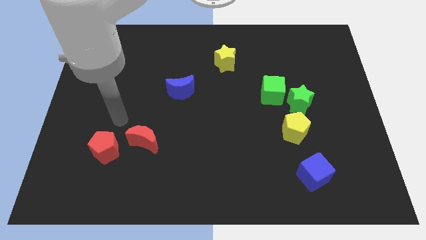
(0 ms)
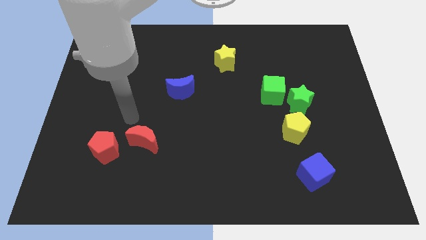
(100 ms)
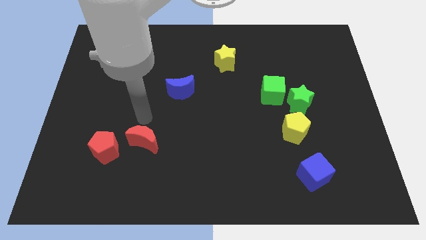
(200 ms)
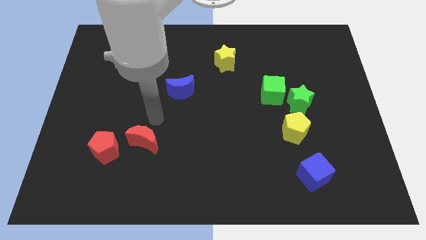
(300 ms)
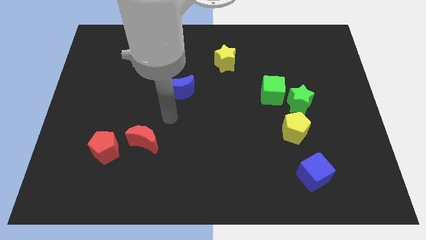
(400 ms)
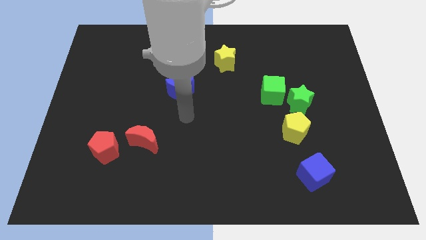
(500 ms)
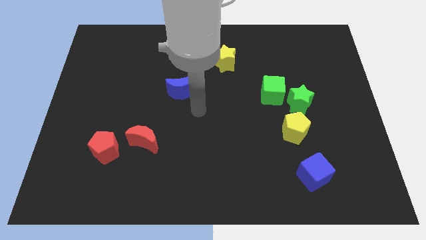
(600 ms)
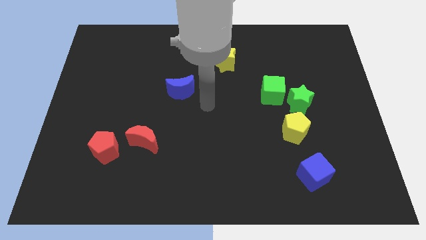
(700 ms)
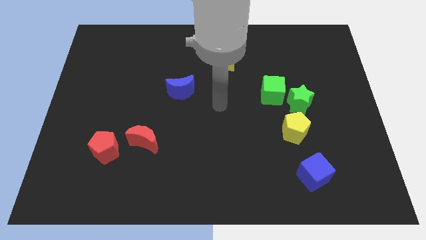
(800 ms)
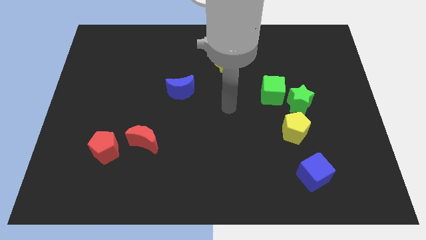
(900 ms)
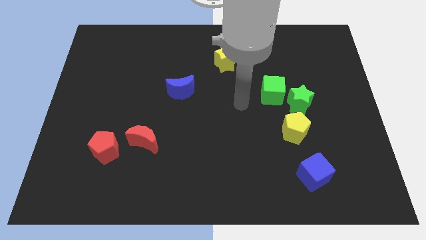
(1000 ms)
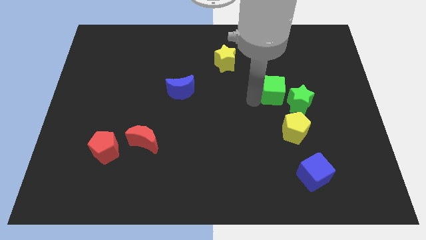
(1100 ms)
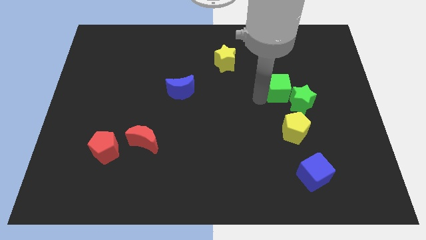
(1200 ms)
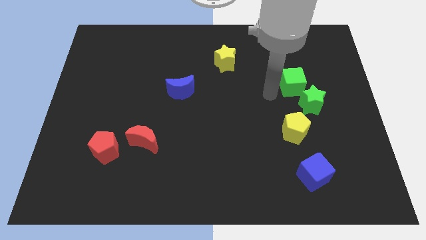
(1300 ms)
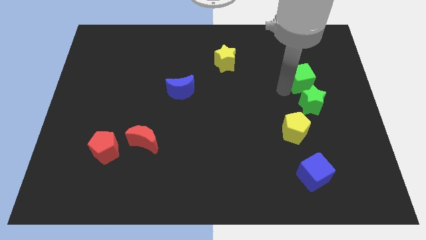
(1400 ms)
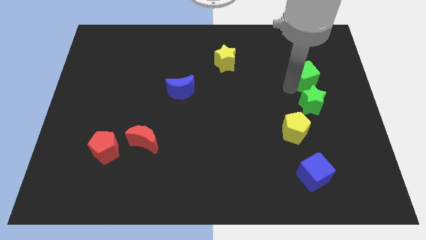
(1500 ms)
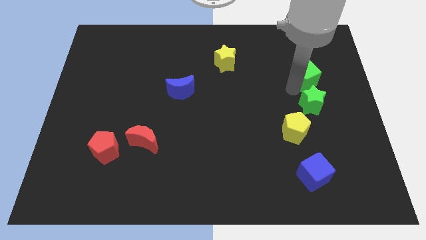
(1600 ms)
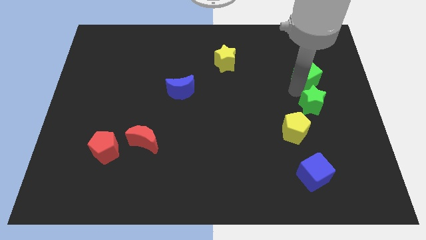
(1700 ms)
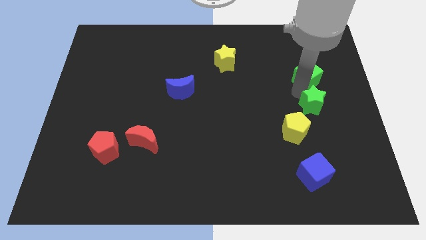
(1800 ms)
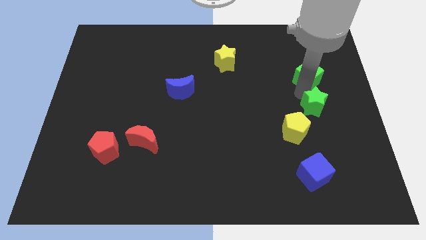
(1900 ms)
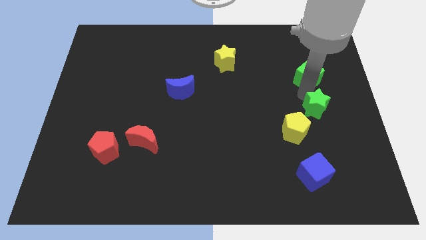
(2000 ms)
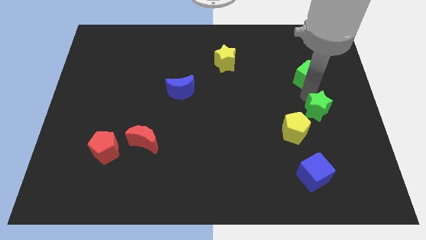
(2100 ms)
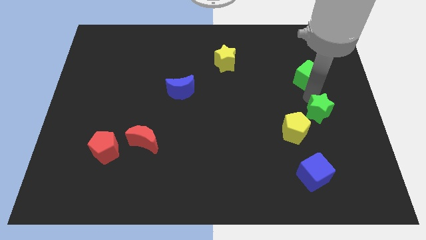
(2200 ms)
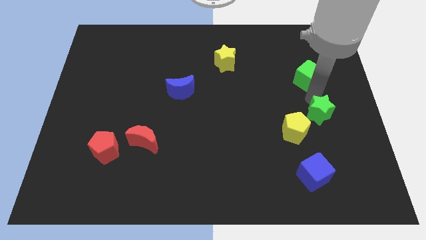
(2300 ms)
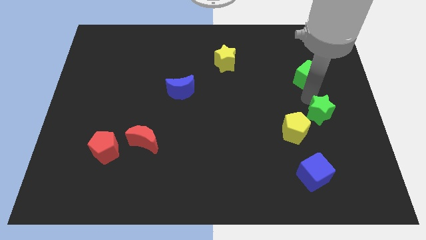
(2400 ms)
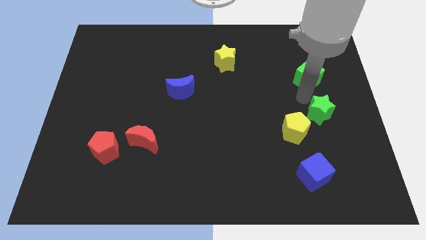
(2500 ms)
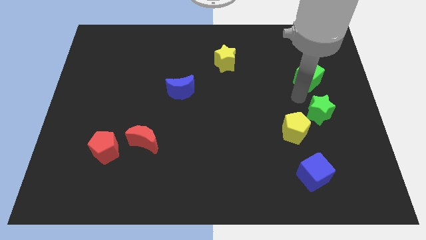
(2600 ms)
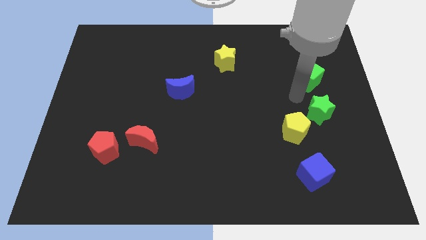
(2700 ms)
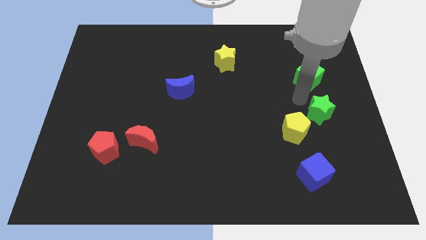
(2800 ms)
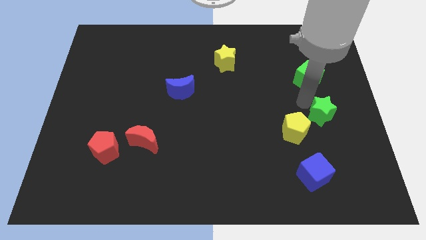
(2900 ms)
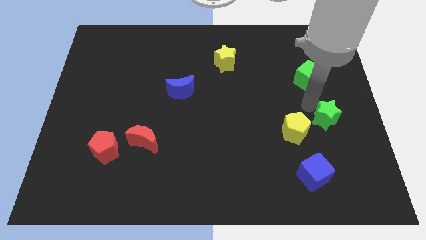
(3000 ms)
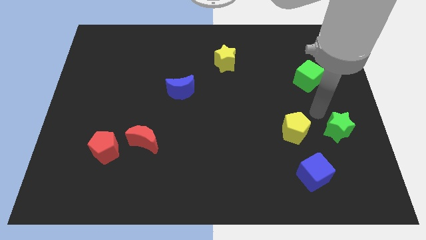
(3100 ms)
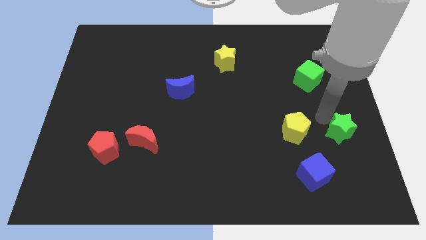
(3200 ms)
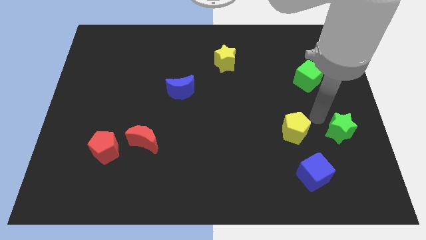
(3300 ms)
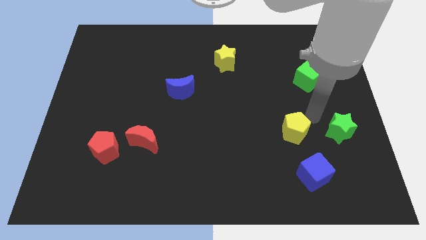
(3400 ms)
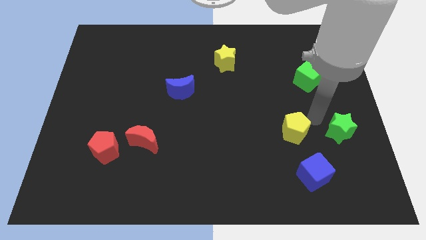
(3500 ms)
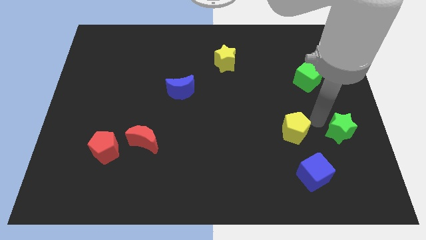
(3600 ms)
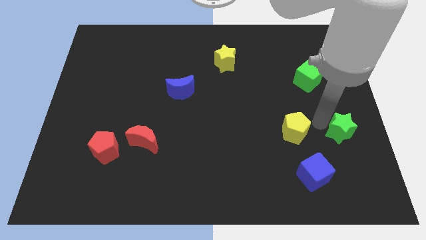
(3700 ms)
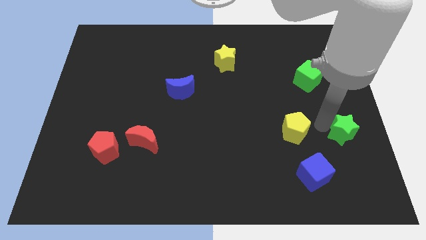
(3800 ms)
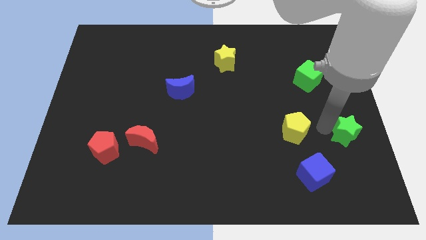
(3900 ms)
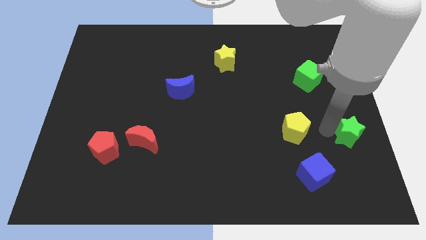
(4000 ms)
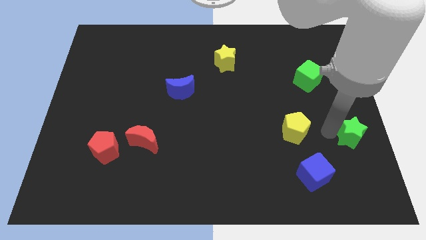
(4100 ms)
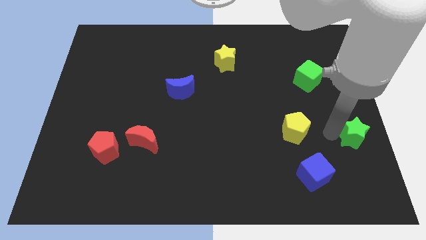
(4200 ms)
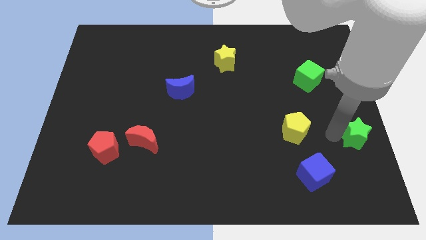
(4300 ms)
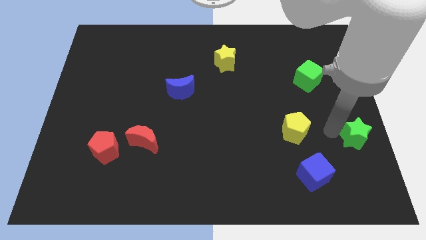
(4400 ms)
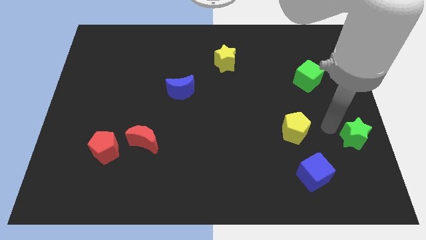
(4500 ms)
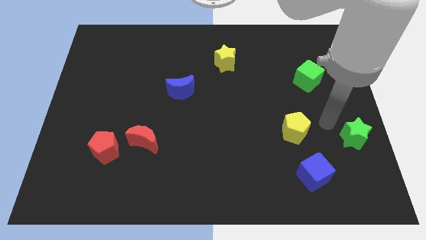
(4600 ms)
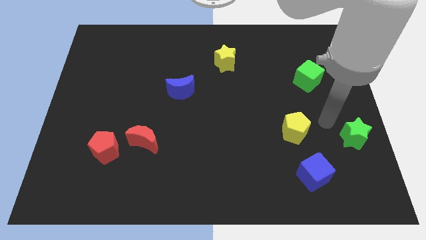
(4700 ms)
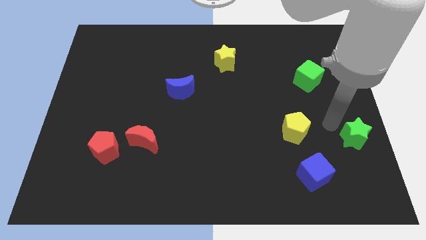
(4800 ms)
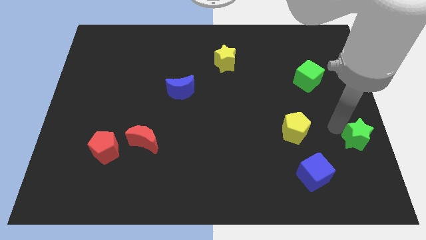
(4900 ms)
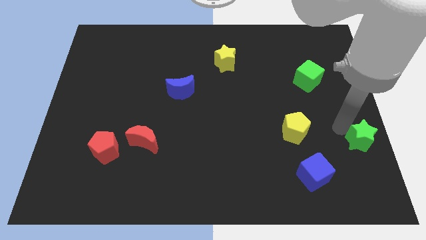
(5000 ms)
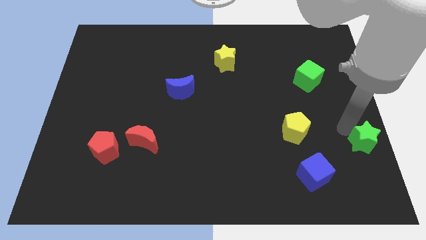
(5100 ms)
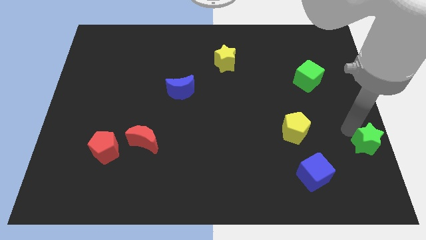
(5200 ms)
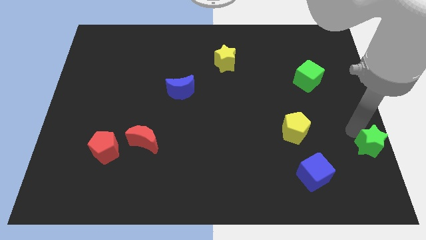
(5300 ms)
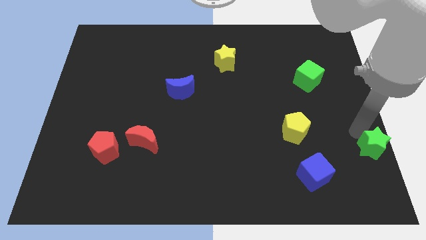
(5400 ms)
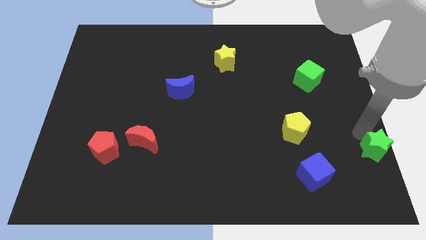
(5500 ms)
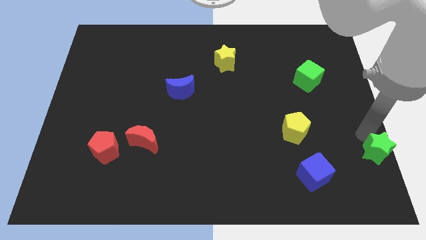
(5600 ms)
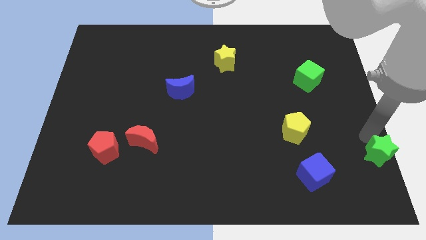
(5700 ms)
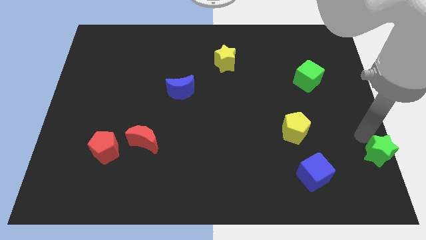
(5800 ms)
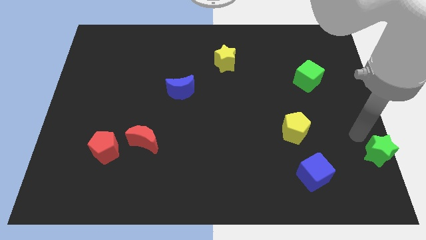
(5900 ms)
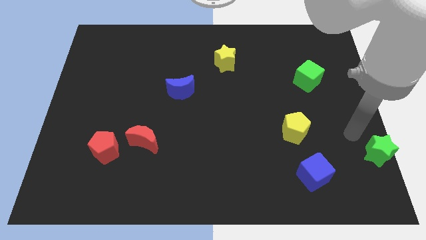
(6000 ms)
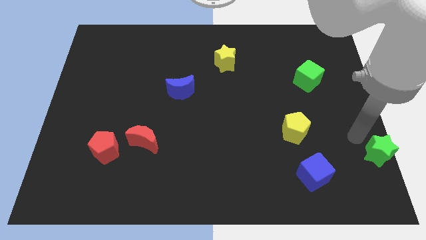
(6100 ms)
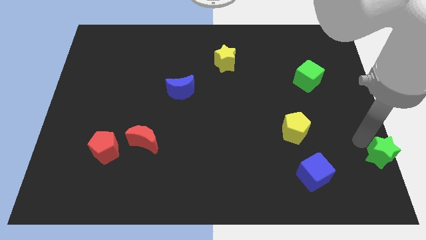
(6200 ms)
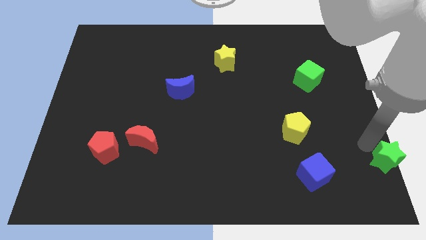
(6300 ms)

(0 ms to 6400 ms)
slide the green star to the bottom right of the board
